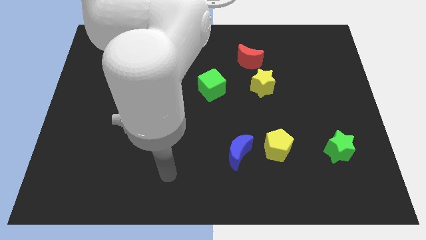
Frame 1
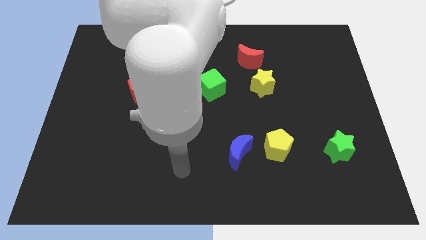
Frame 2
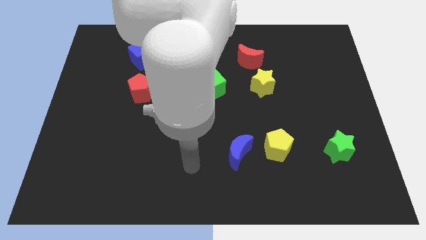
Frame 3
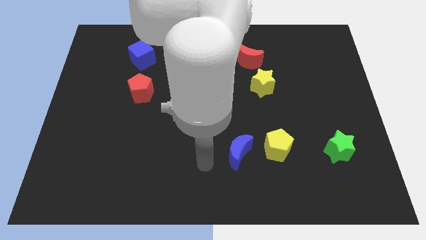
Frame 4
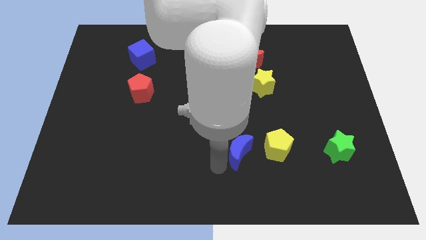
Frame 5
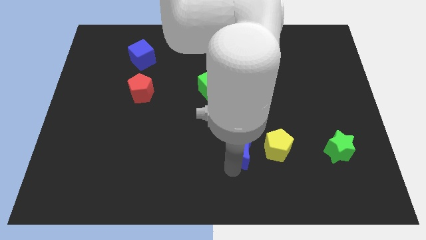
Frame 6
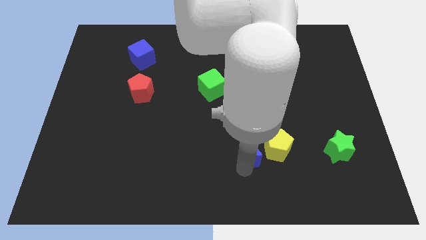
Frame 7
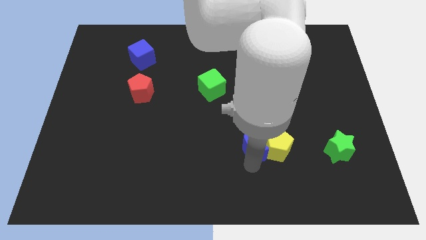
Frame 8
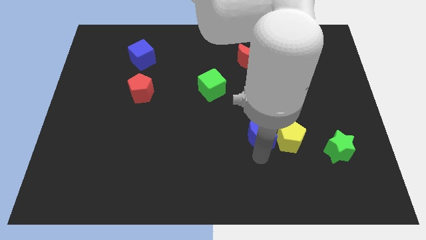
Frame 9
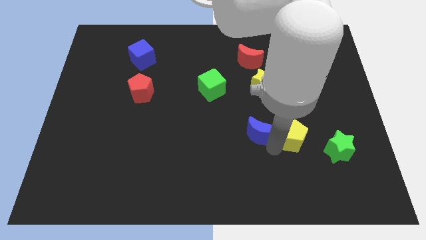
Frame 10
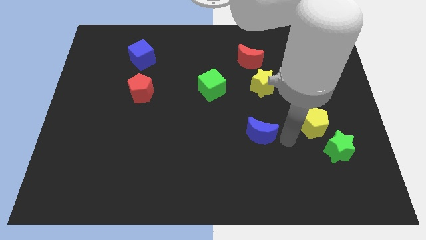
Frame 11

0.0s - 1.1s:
pull the blue moon apart from the yellow pentagon

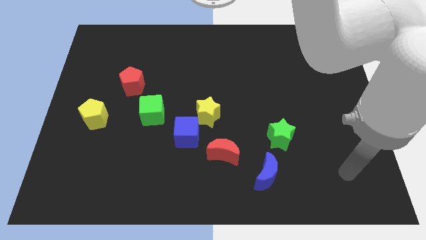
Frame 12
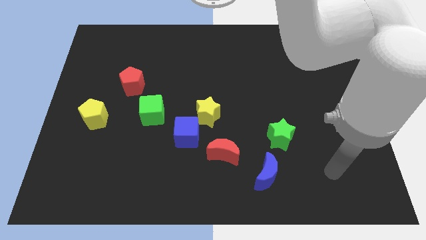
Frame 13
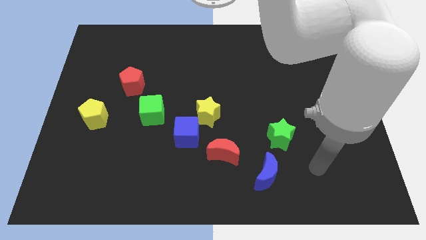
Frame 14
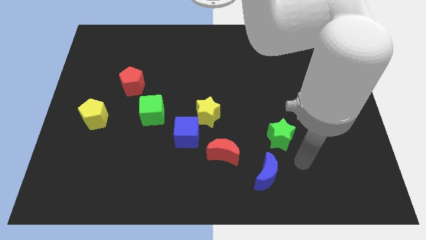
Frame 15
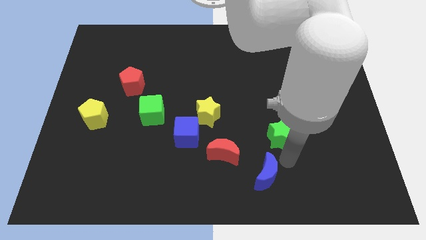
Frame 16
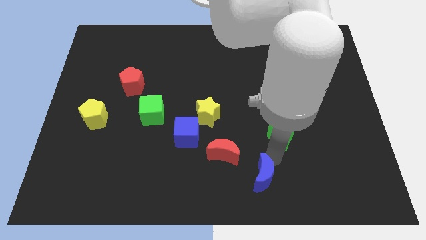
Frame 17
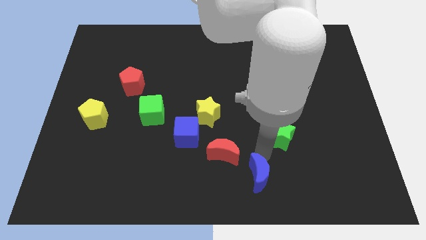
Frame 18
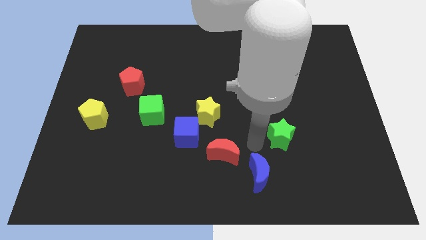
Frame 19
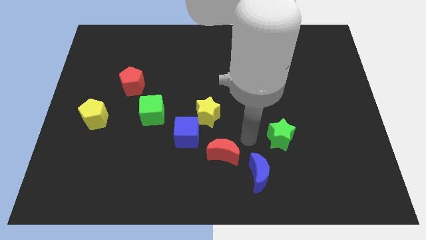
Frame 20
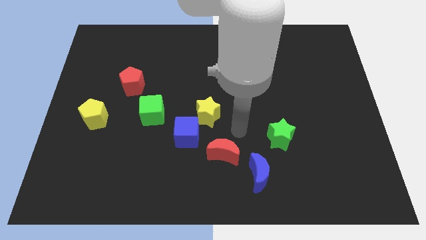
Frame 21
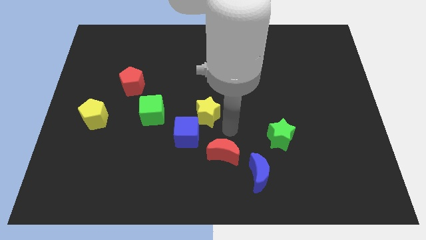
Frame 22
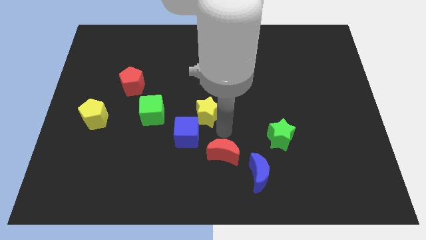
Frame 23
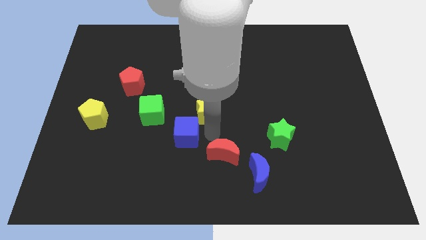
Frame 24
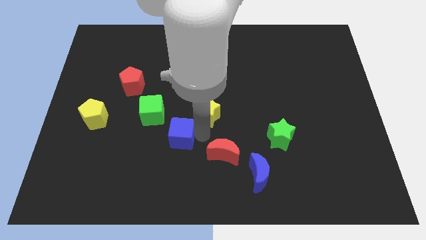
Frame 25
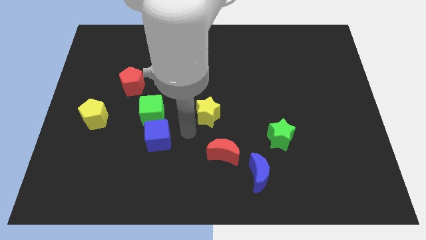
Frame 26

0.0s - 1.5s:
pull the yellow star apart from the blue cube

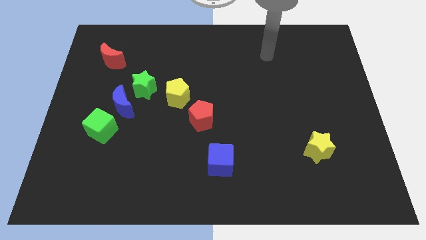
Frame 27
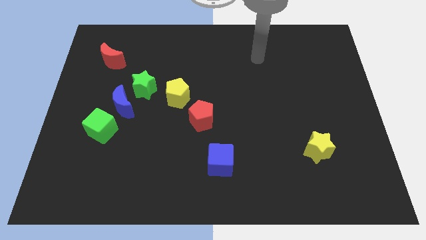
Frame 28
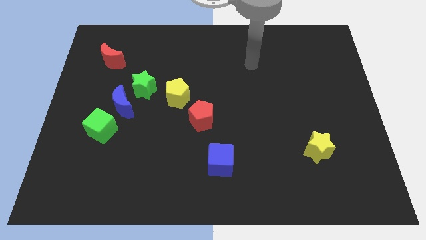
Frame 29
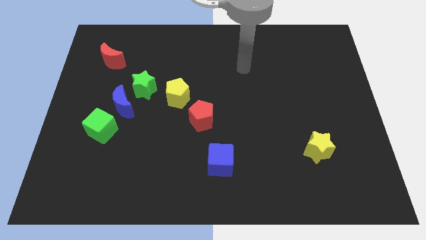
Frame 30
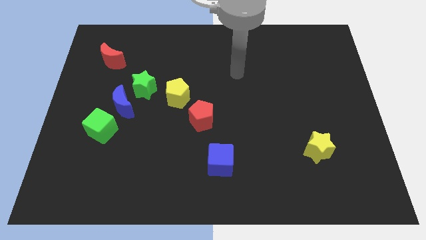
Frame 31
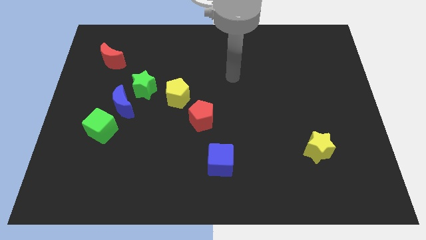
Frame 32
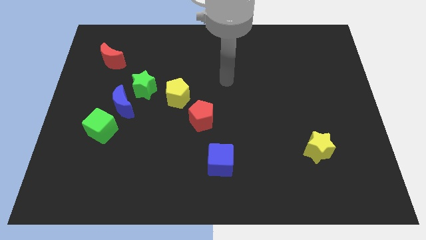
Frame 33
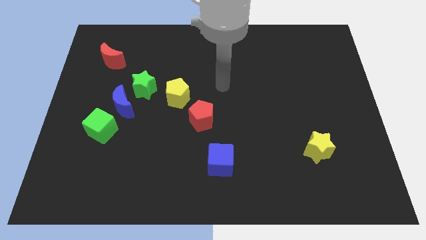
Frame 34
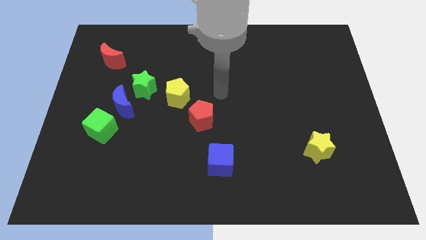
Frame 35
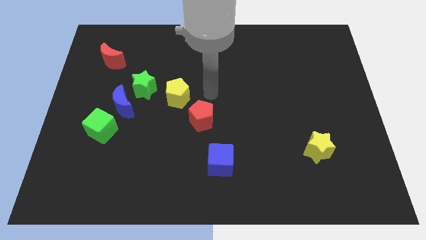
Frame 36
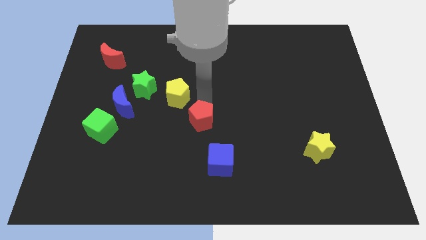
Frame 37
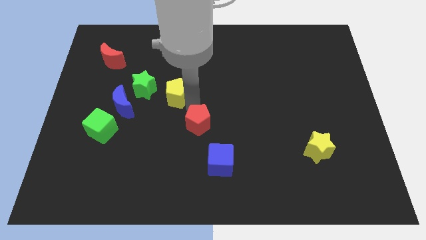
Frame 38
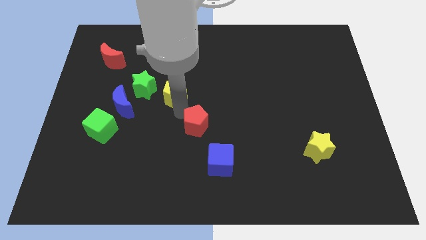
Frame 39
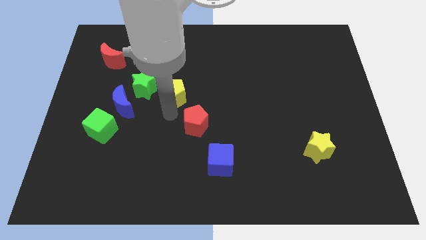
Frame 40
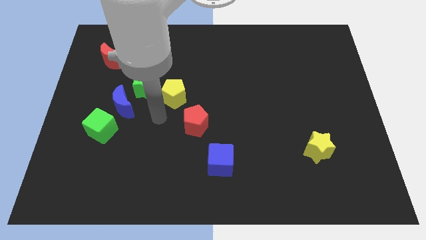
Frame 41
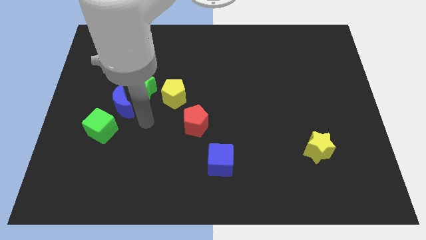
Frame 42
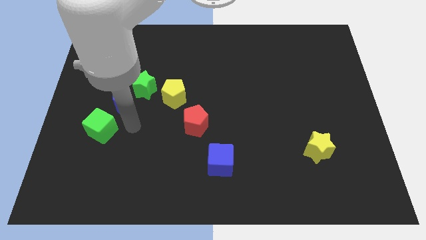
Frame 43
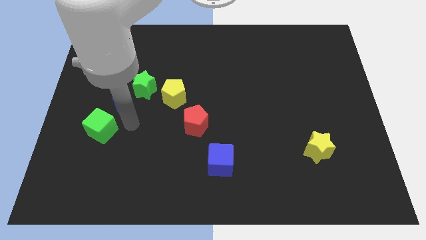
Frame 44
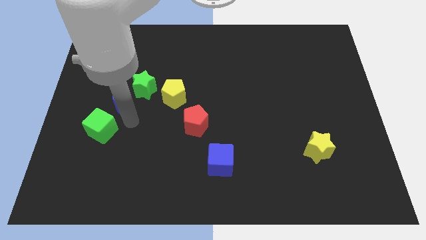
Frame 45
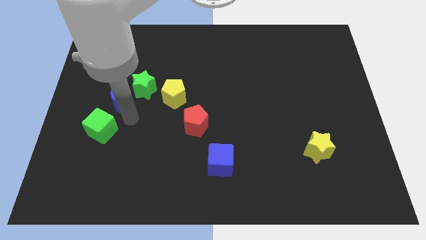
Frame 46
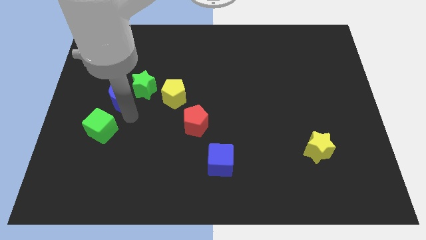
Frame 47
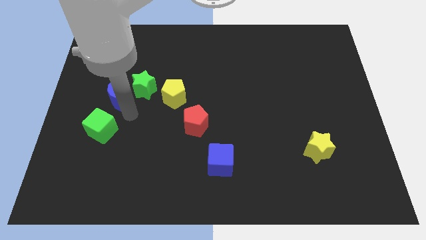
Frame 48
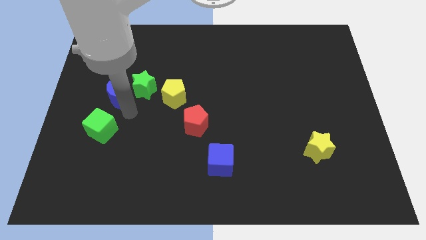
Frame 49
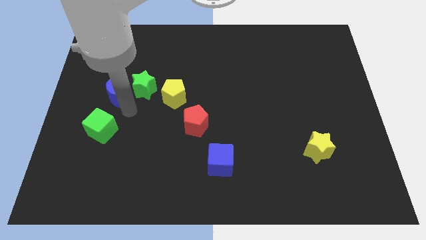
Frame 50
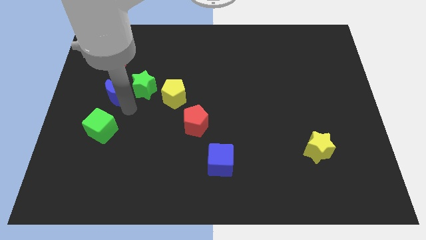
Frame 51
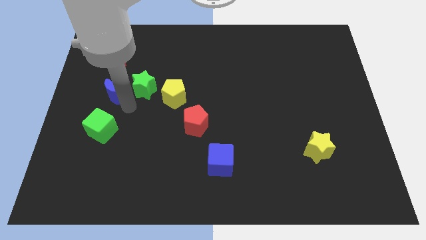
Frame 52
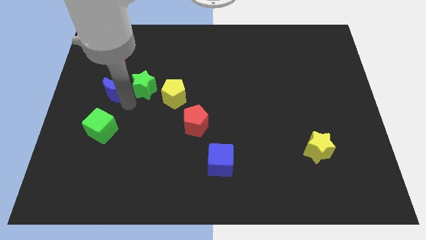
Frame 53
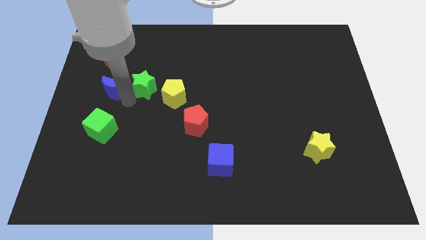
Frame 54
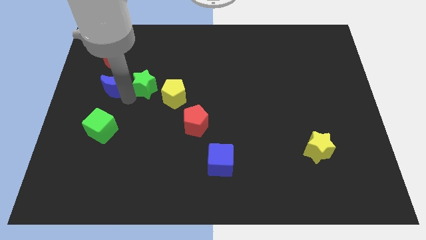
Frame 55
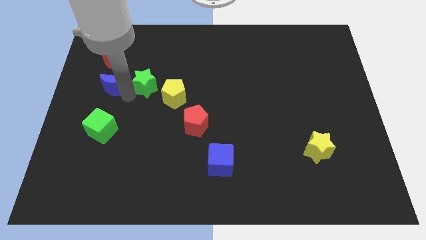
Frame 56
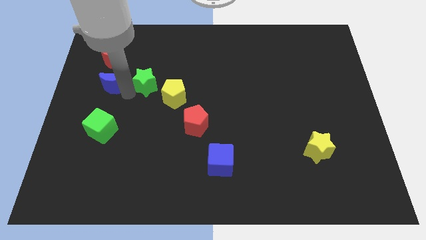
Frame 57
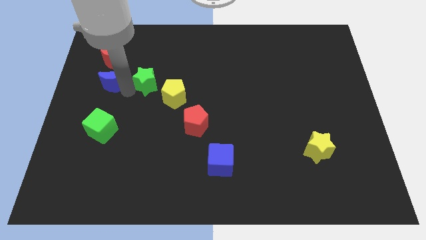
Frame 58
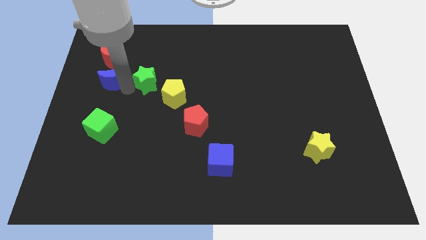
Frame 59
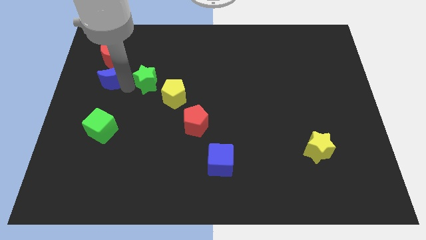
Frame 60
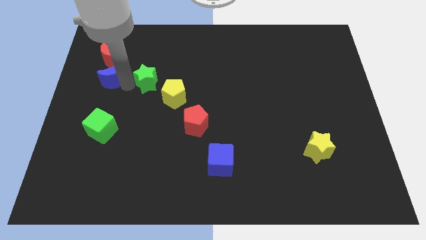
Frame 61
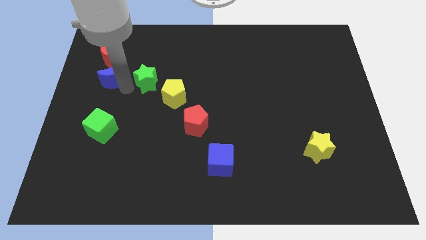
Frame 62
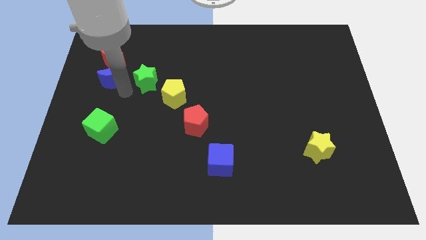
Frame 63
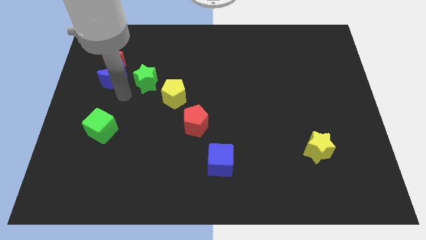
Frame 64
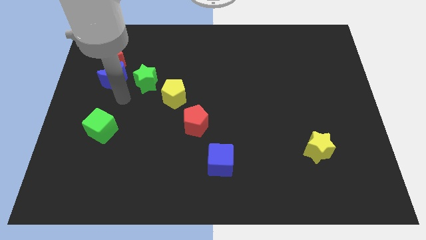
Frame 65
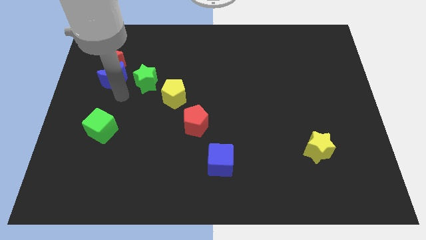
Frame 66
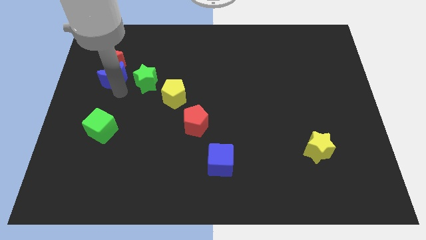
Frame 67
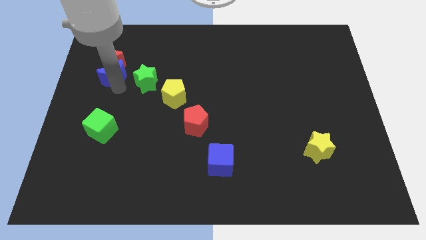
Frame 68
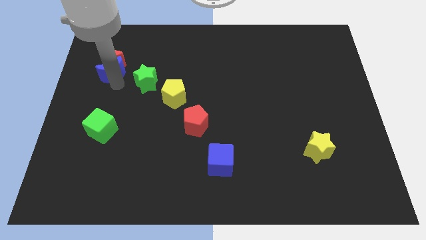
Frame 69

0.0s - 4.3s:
separate the blue moon from the green star and green cube

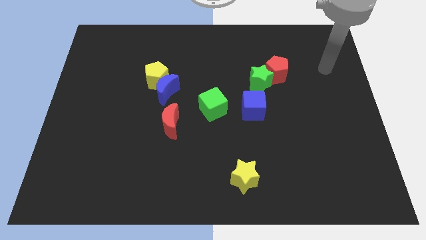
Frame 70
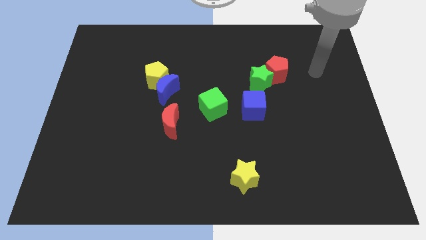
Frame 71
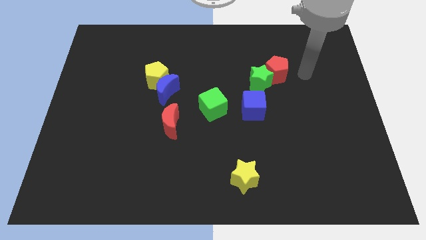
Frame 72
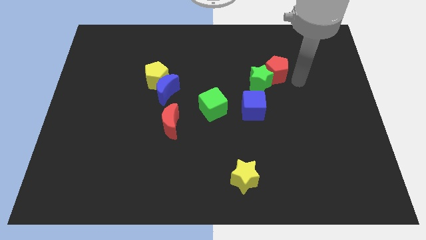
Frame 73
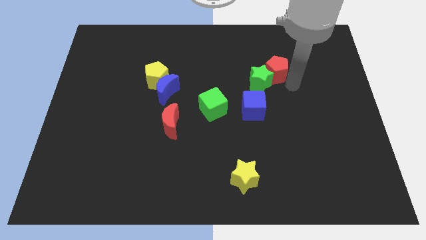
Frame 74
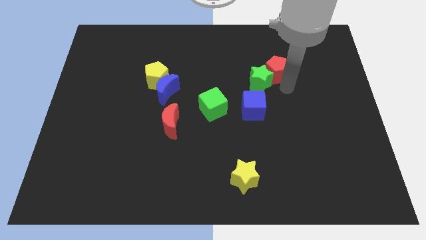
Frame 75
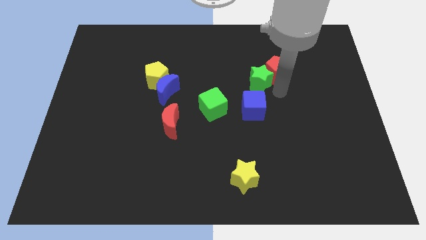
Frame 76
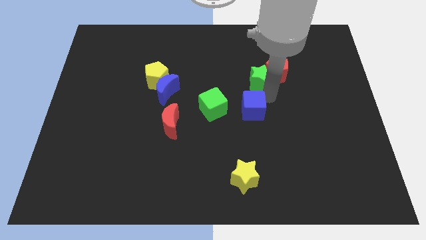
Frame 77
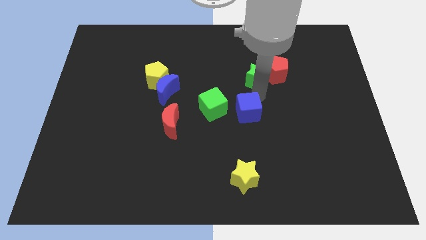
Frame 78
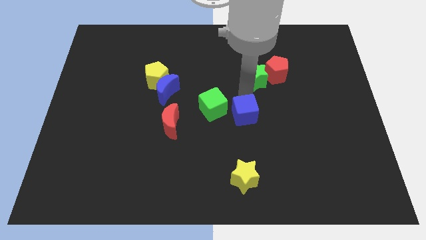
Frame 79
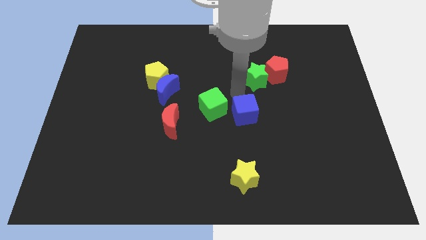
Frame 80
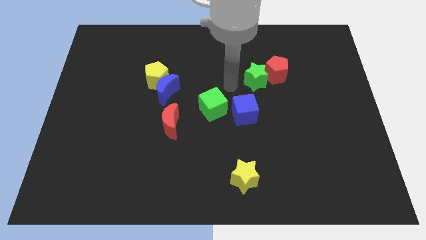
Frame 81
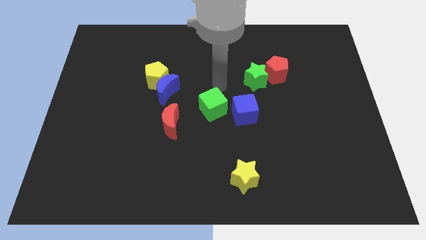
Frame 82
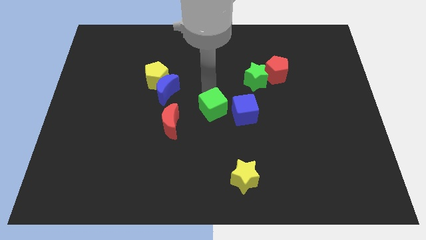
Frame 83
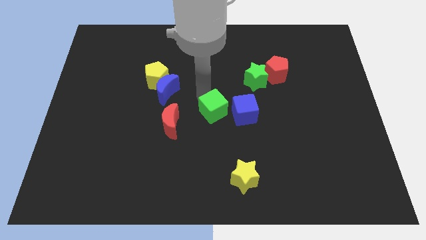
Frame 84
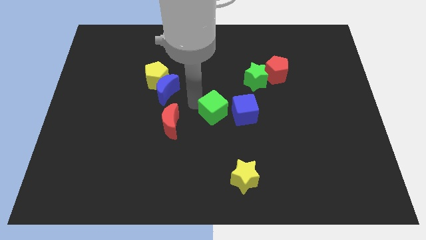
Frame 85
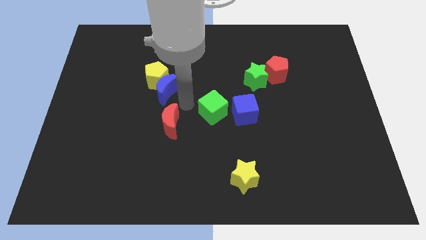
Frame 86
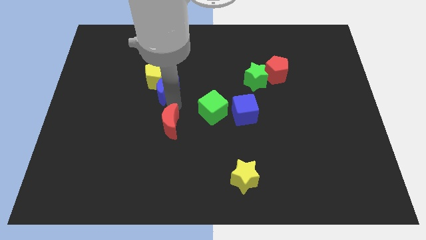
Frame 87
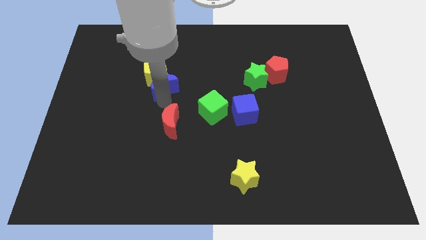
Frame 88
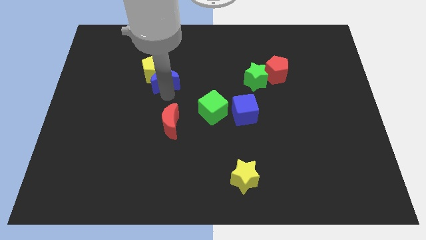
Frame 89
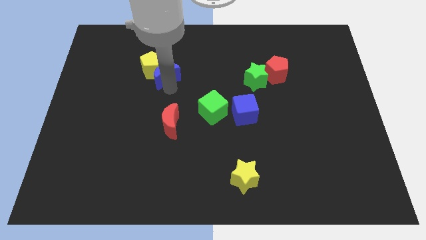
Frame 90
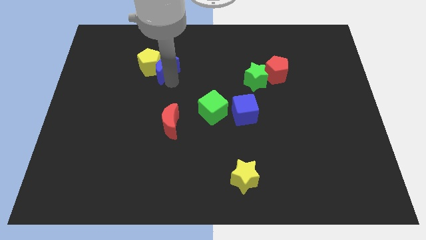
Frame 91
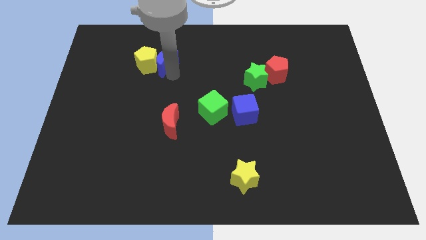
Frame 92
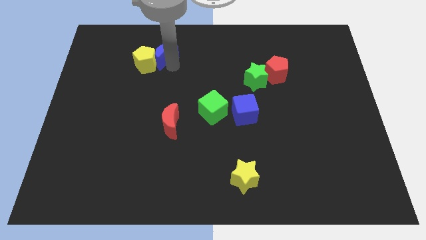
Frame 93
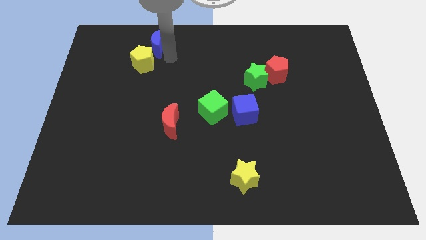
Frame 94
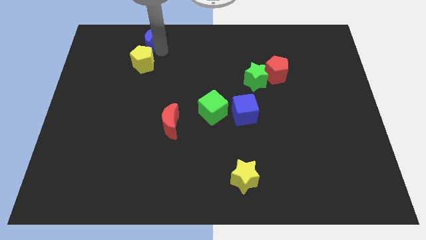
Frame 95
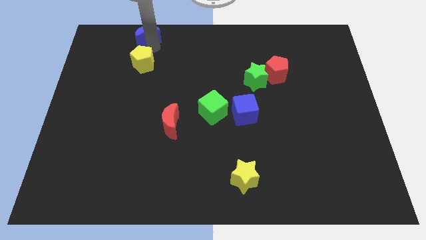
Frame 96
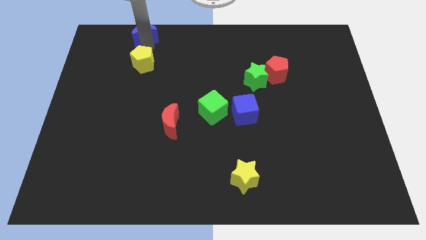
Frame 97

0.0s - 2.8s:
move the yellow pentagon away from the blue moon
